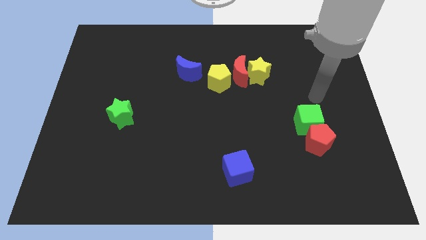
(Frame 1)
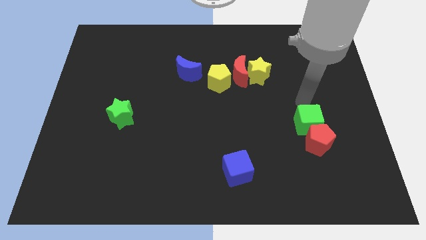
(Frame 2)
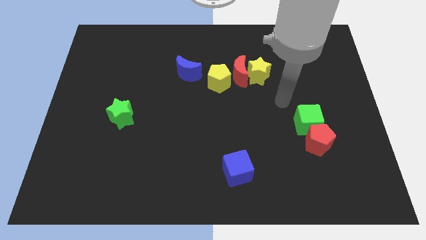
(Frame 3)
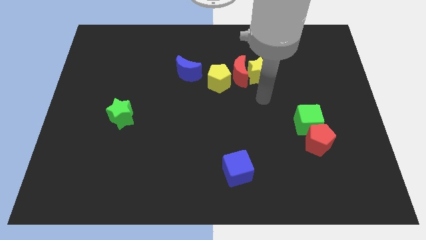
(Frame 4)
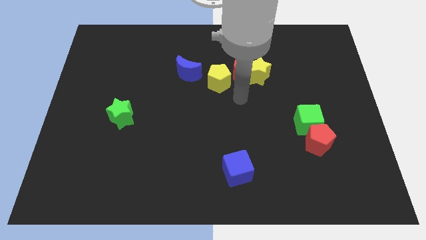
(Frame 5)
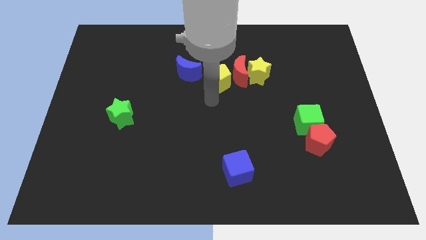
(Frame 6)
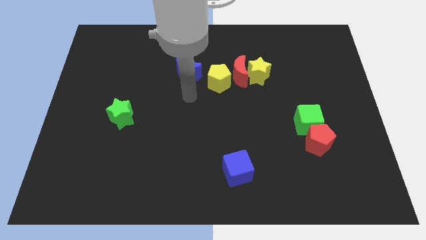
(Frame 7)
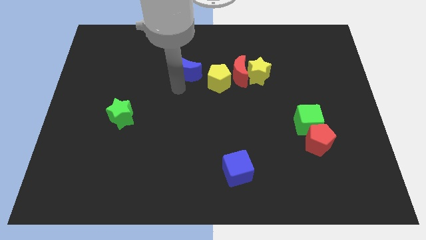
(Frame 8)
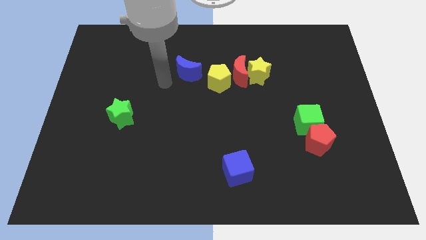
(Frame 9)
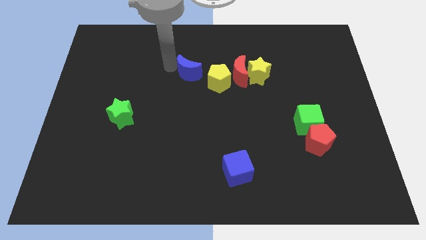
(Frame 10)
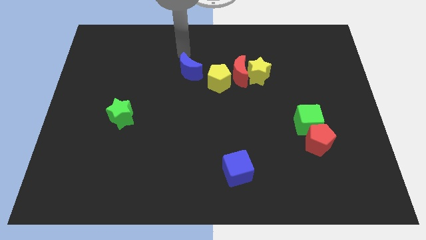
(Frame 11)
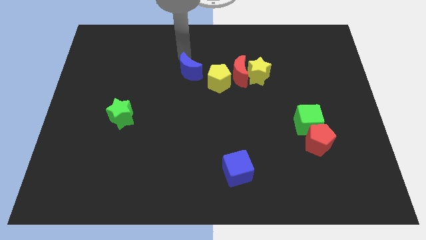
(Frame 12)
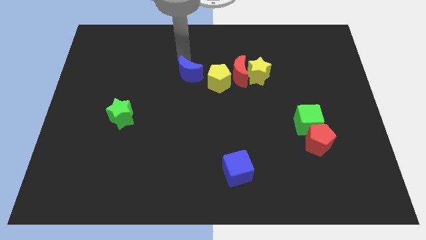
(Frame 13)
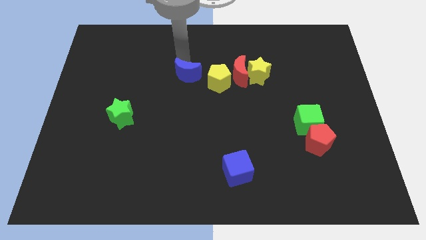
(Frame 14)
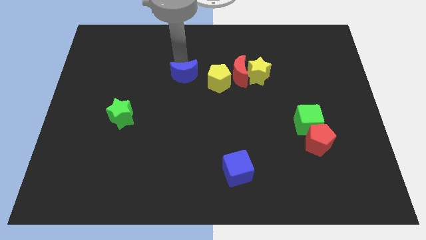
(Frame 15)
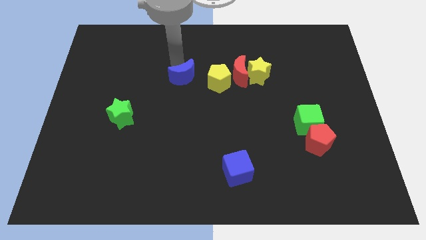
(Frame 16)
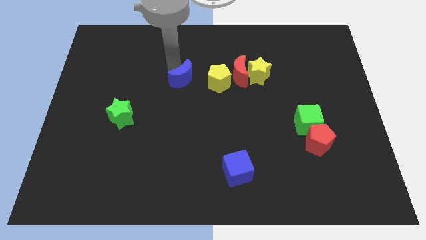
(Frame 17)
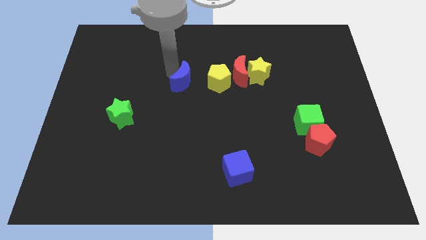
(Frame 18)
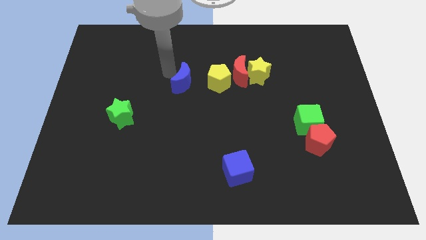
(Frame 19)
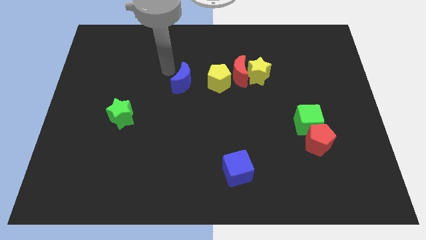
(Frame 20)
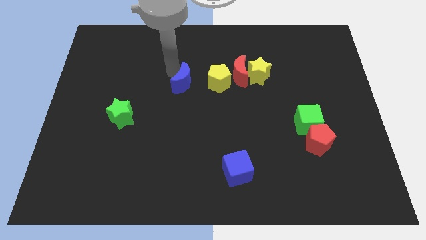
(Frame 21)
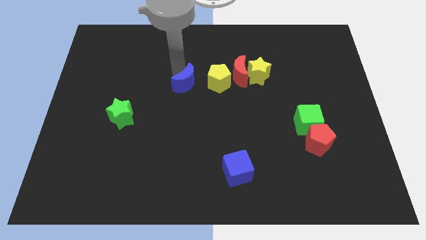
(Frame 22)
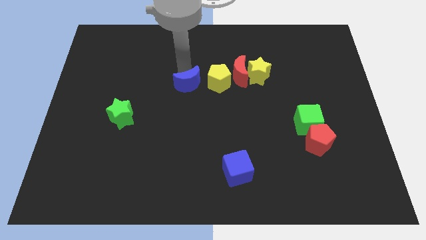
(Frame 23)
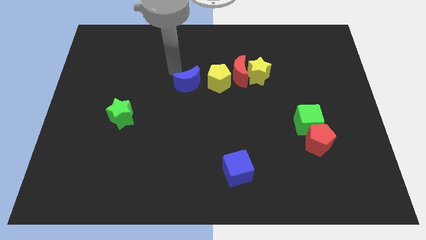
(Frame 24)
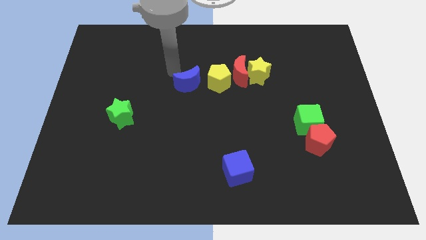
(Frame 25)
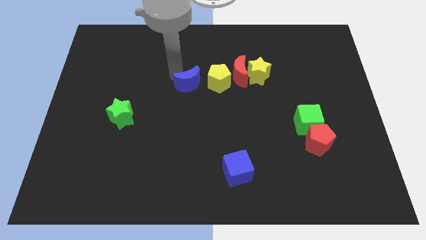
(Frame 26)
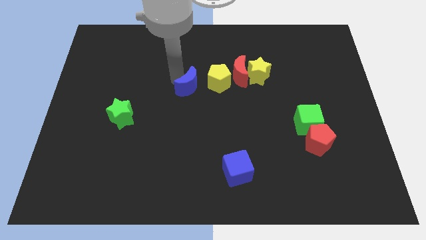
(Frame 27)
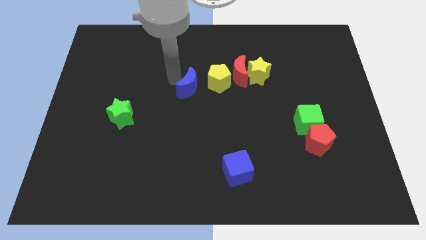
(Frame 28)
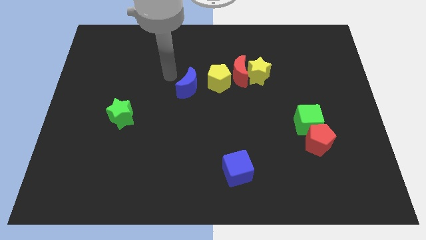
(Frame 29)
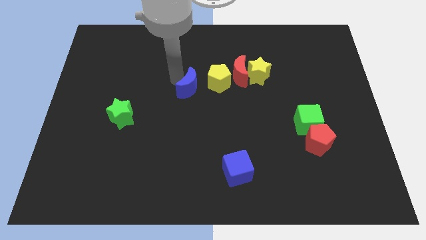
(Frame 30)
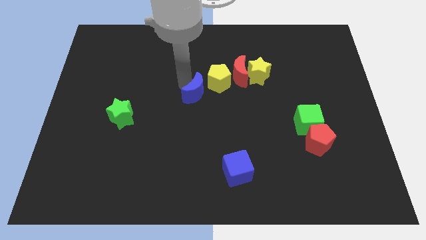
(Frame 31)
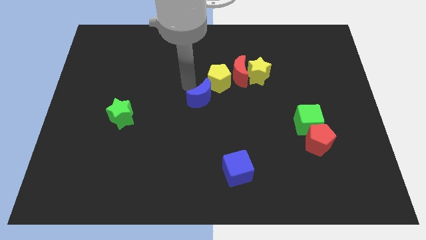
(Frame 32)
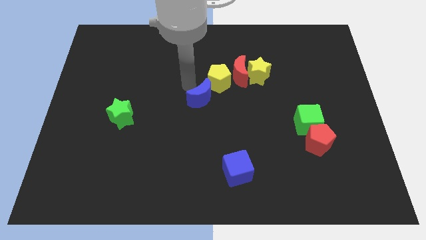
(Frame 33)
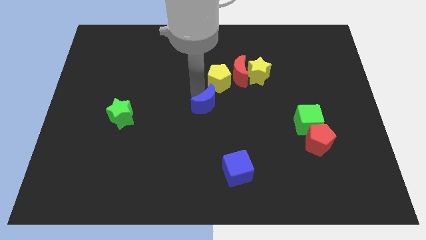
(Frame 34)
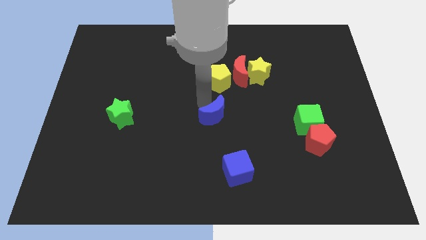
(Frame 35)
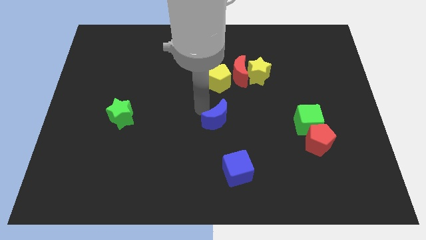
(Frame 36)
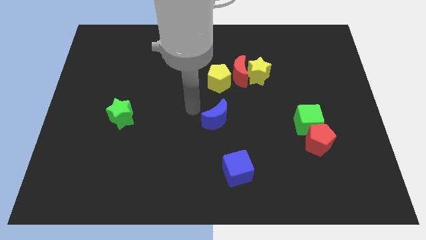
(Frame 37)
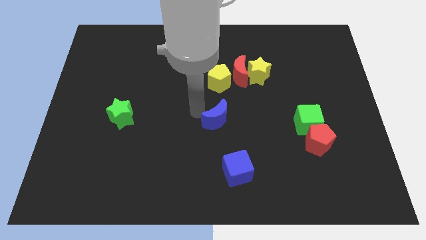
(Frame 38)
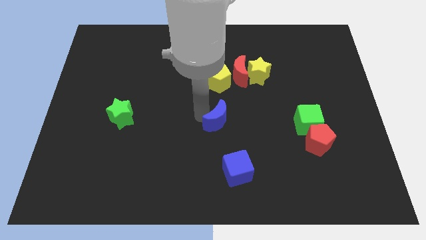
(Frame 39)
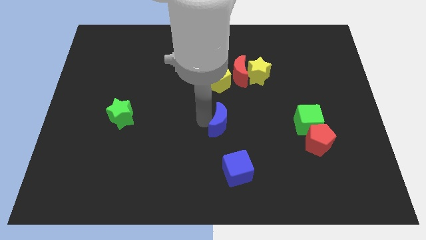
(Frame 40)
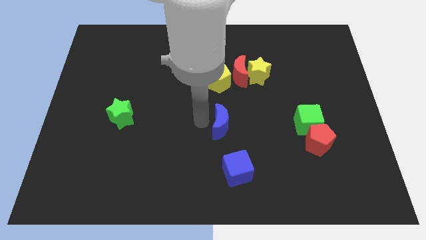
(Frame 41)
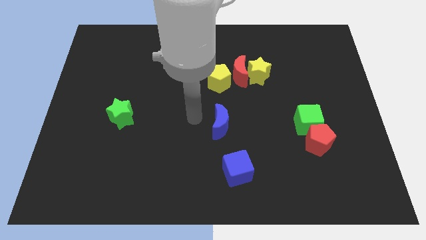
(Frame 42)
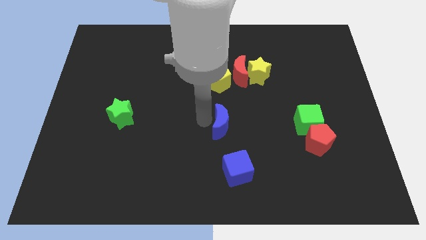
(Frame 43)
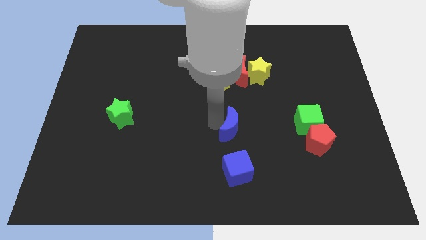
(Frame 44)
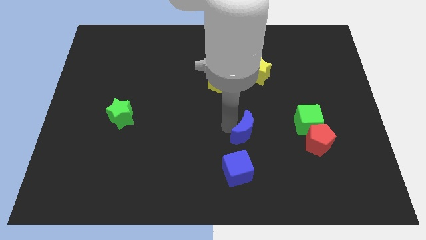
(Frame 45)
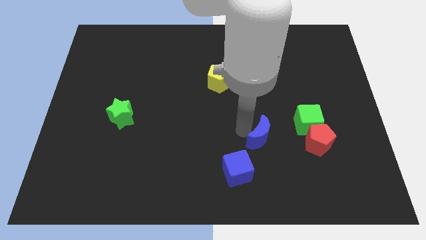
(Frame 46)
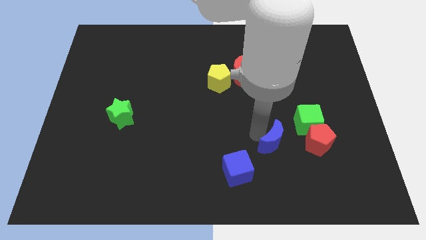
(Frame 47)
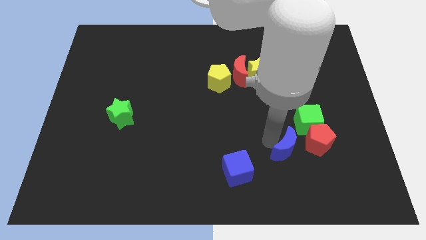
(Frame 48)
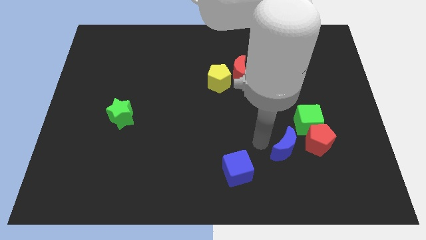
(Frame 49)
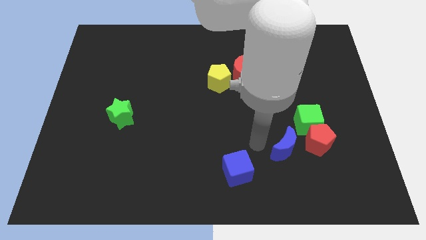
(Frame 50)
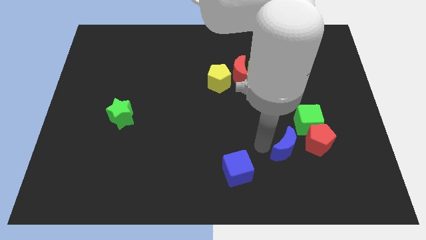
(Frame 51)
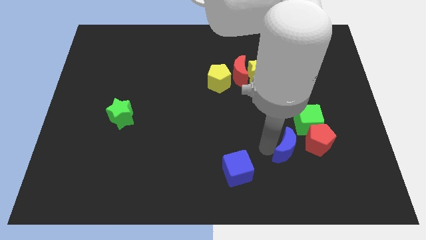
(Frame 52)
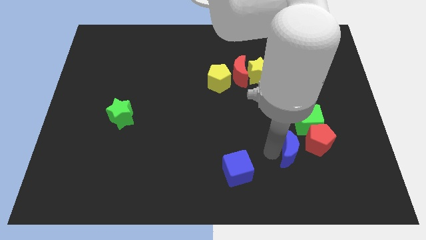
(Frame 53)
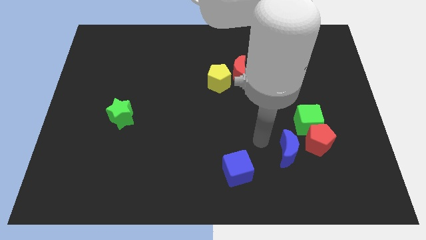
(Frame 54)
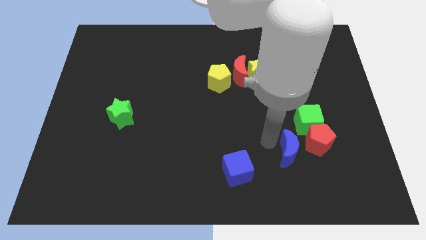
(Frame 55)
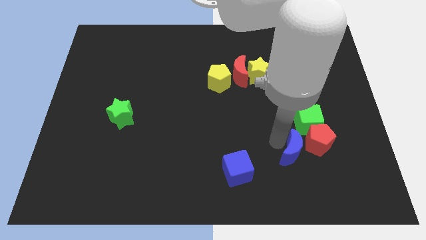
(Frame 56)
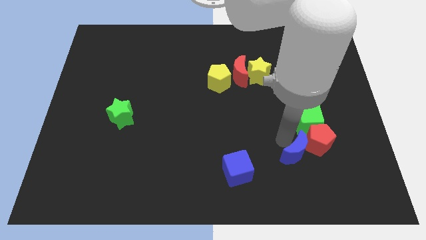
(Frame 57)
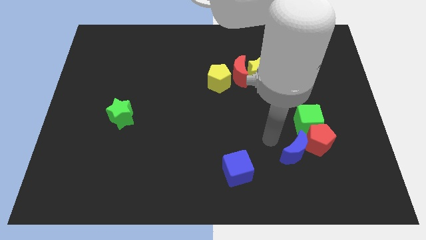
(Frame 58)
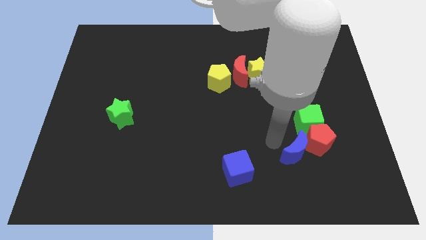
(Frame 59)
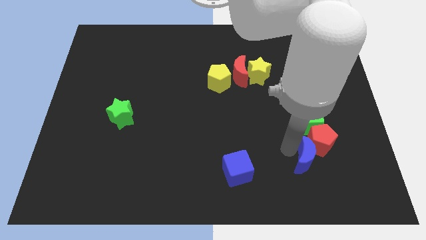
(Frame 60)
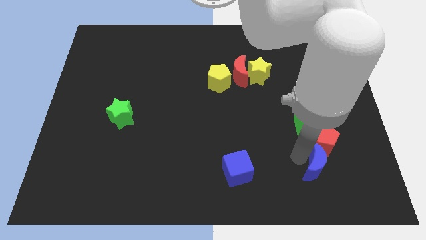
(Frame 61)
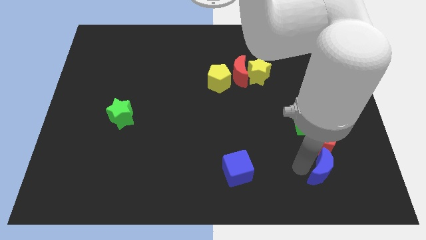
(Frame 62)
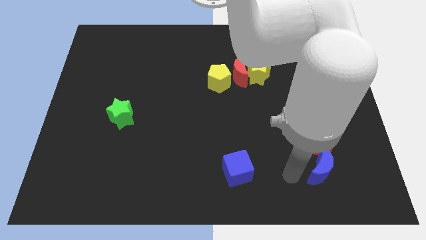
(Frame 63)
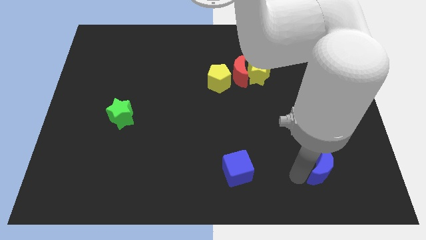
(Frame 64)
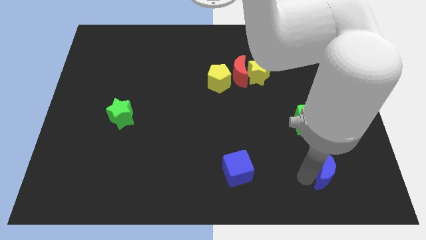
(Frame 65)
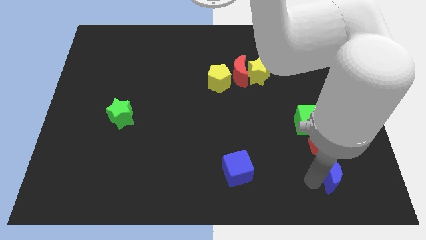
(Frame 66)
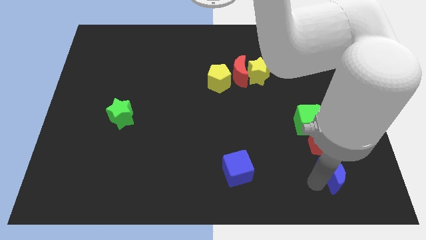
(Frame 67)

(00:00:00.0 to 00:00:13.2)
move the blue moon to the bottom right of the red pentagon

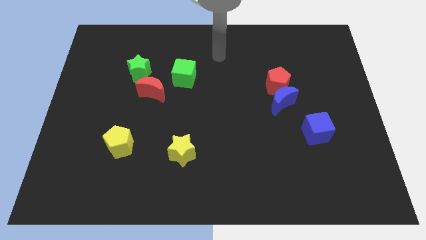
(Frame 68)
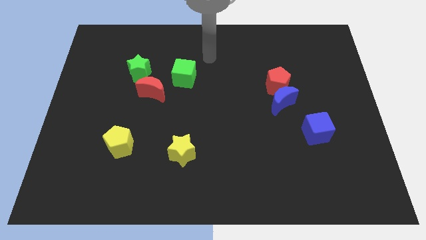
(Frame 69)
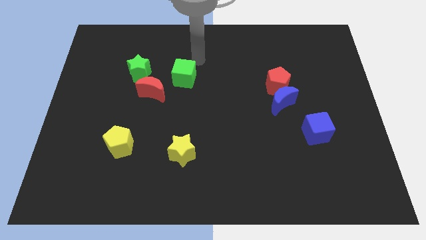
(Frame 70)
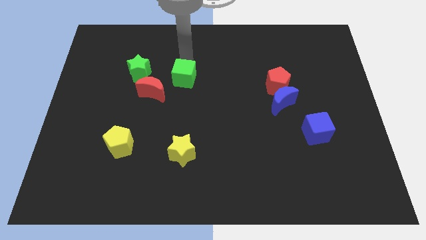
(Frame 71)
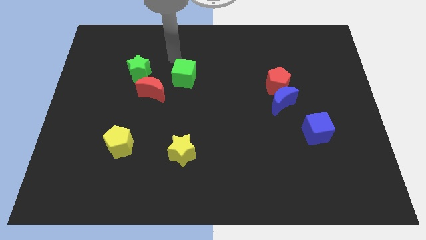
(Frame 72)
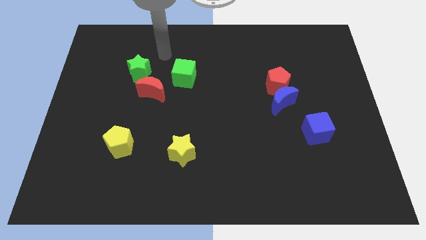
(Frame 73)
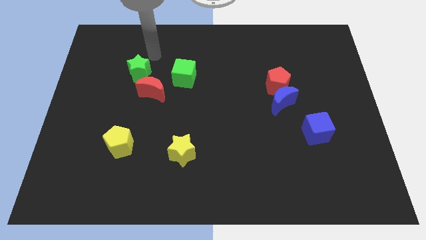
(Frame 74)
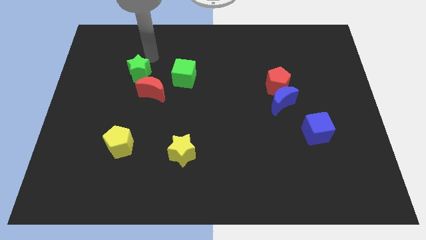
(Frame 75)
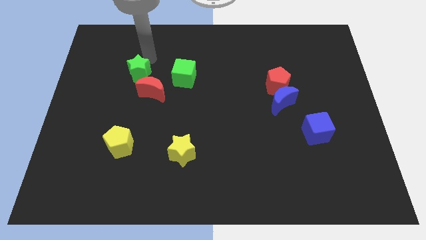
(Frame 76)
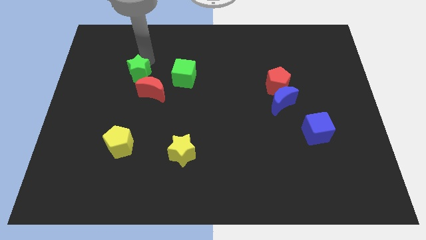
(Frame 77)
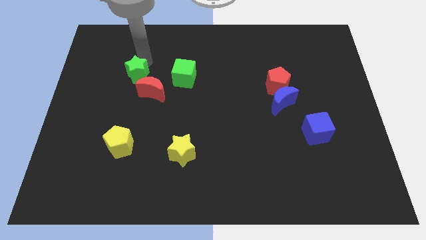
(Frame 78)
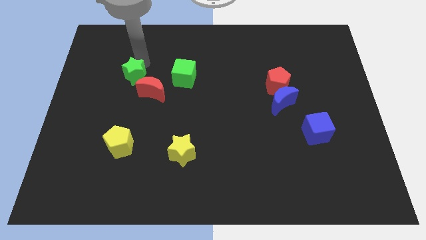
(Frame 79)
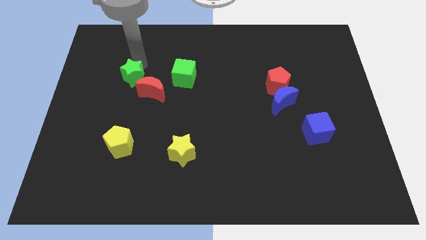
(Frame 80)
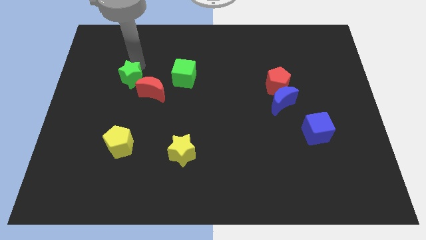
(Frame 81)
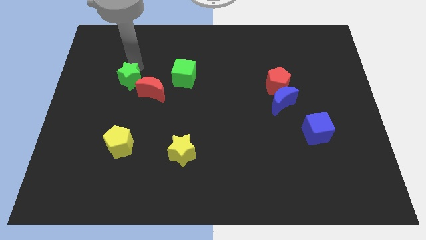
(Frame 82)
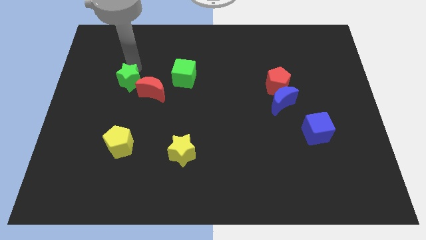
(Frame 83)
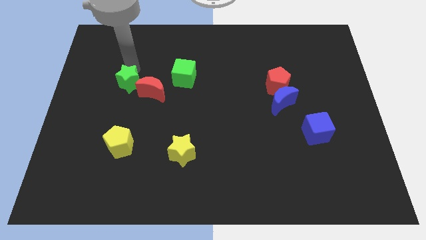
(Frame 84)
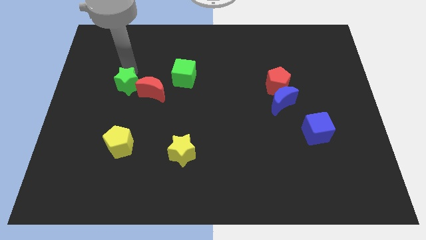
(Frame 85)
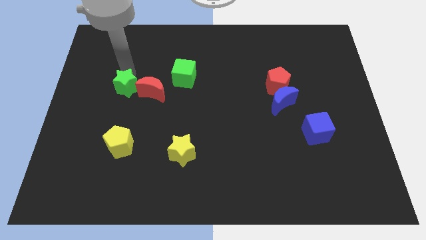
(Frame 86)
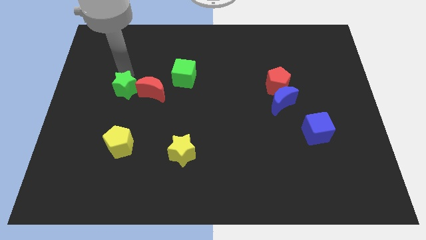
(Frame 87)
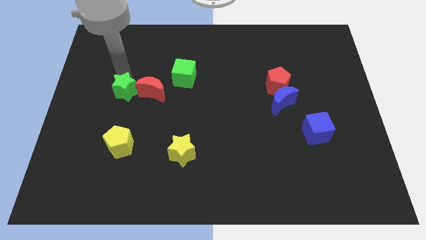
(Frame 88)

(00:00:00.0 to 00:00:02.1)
put the green star to the top side of the yellow pentagon
